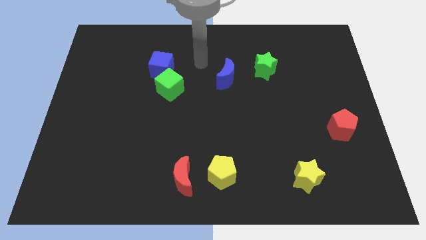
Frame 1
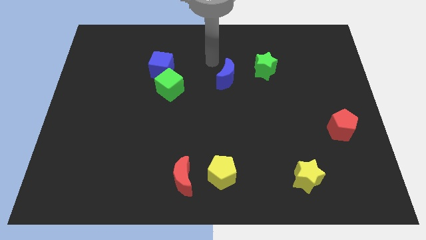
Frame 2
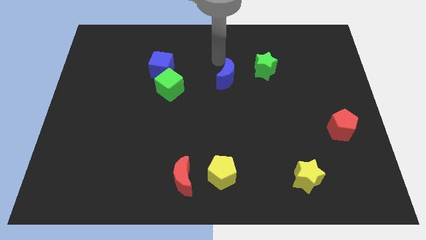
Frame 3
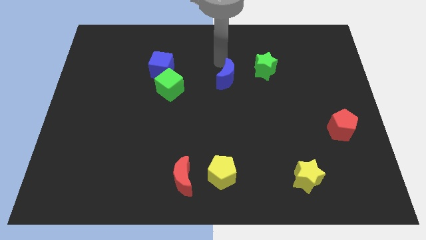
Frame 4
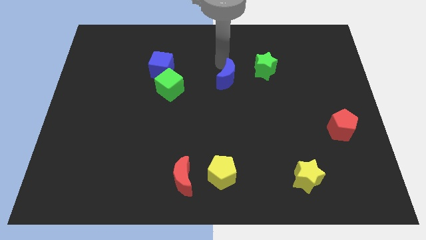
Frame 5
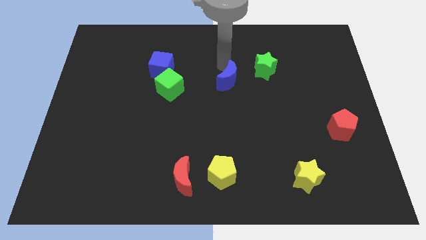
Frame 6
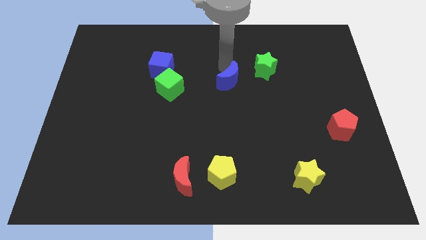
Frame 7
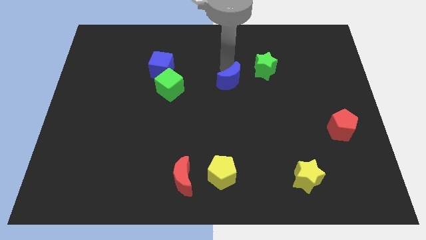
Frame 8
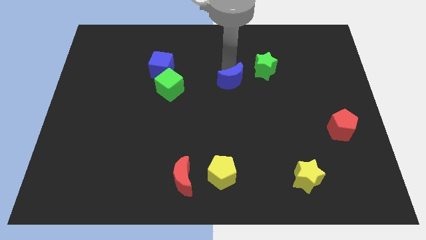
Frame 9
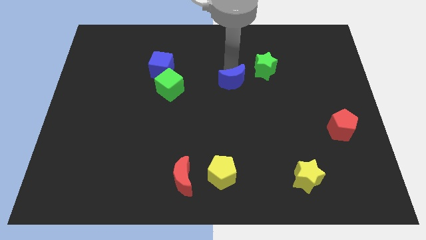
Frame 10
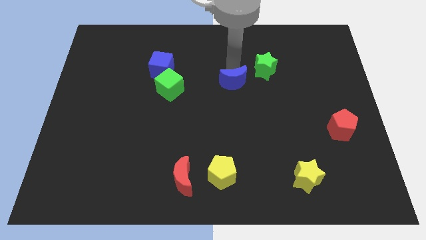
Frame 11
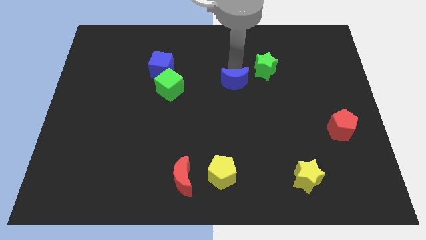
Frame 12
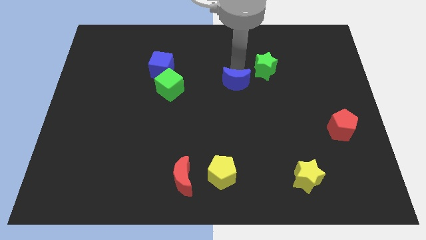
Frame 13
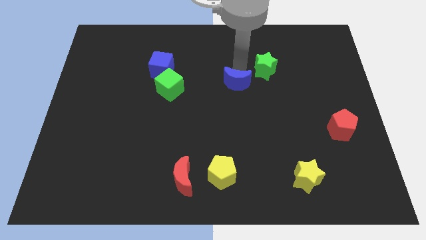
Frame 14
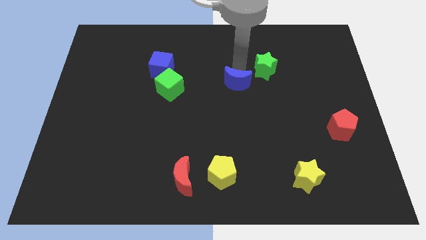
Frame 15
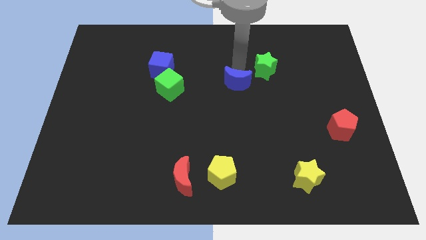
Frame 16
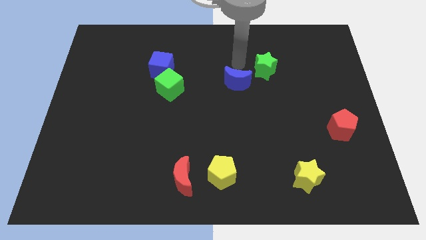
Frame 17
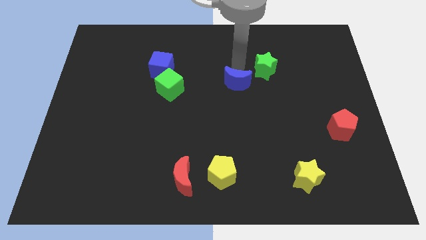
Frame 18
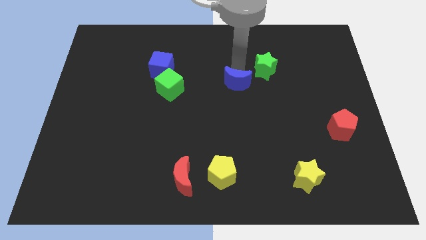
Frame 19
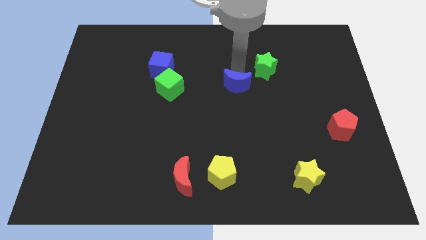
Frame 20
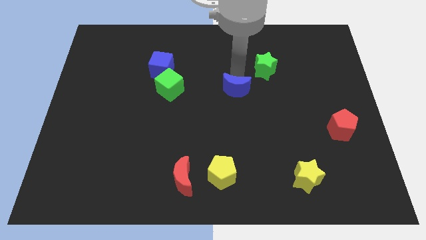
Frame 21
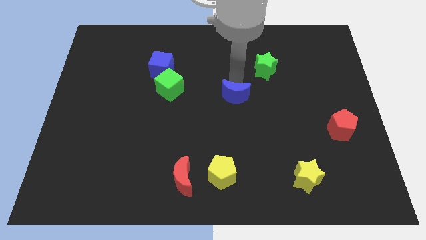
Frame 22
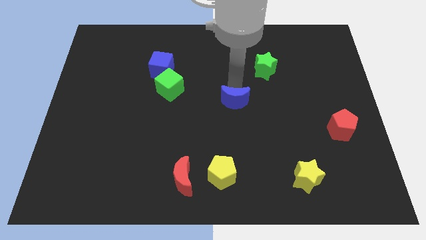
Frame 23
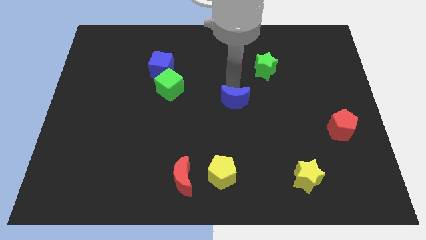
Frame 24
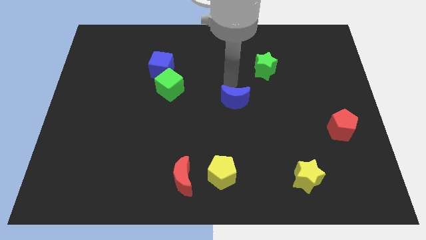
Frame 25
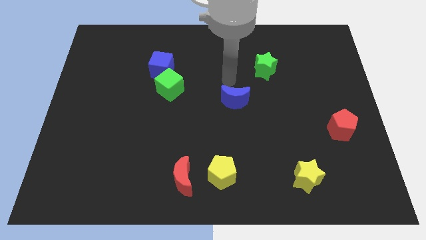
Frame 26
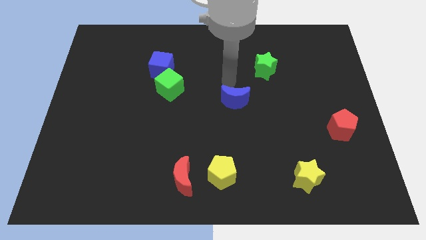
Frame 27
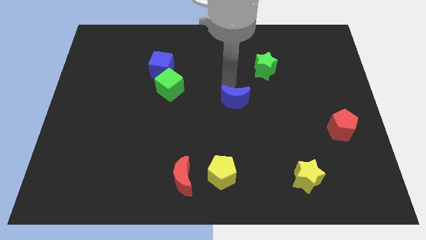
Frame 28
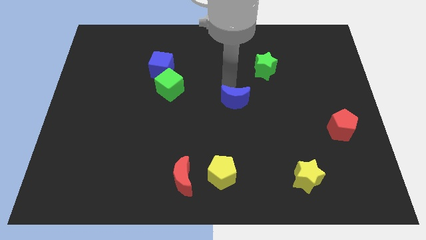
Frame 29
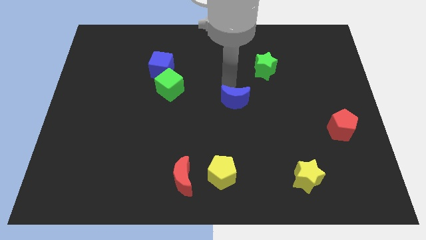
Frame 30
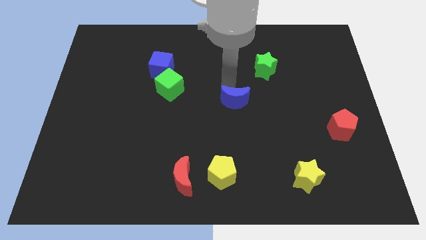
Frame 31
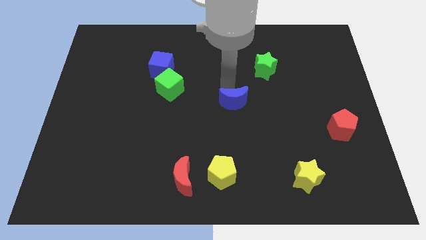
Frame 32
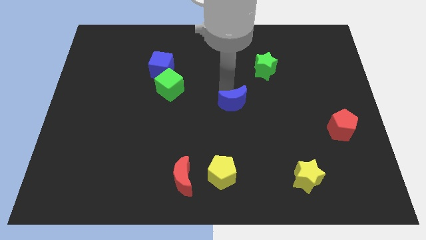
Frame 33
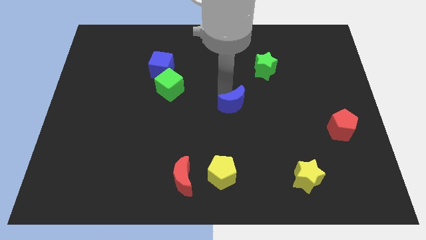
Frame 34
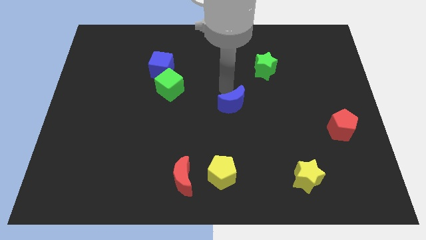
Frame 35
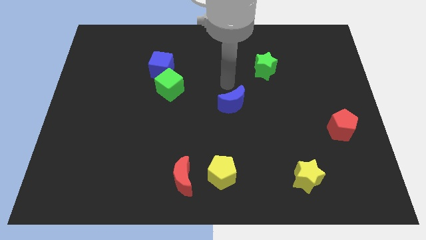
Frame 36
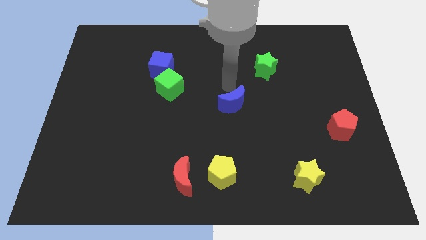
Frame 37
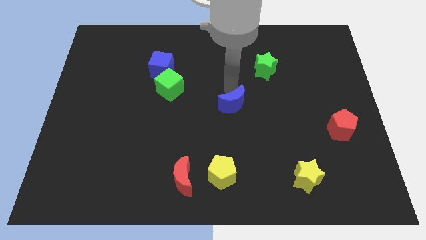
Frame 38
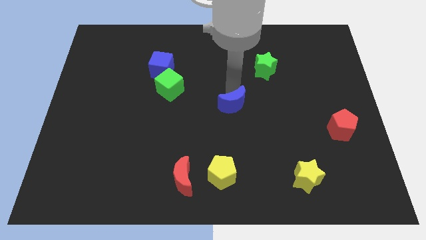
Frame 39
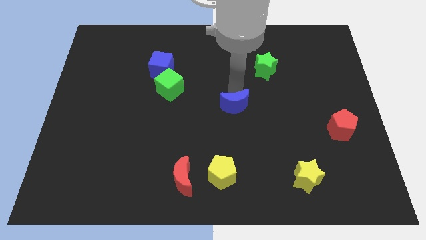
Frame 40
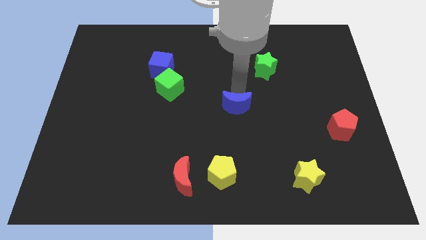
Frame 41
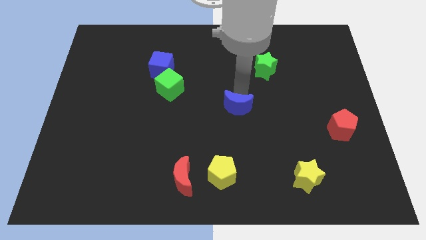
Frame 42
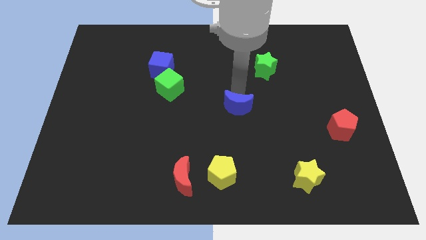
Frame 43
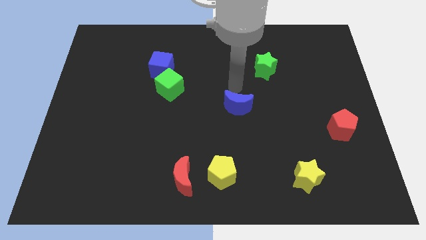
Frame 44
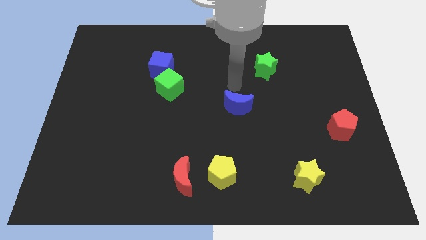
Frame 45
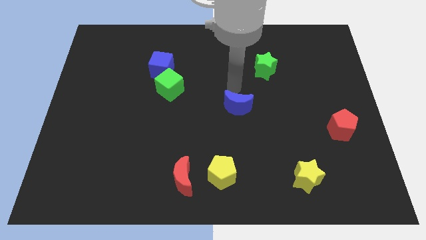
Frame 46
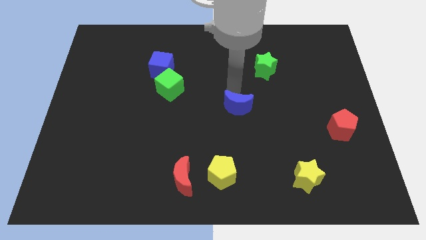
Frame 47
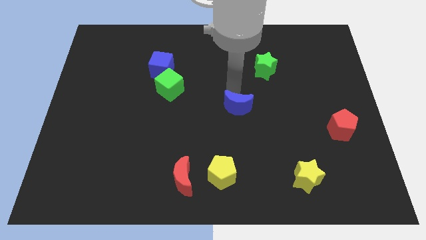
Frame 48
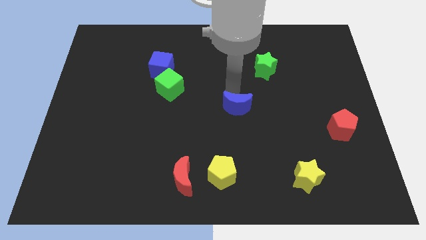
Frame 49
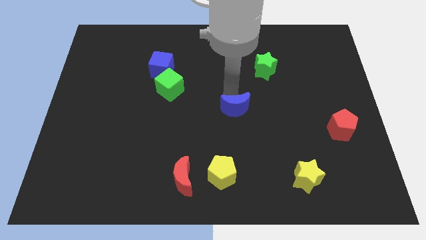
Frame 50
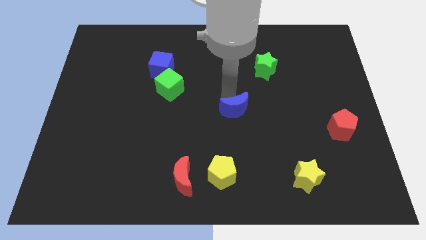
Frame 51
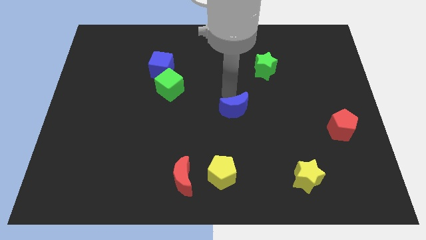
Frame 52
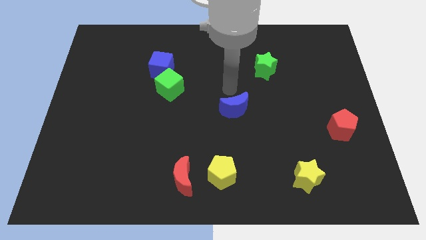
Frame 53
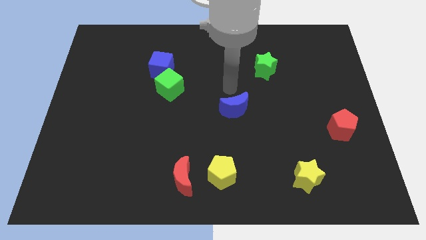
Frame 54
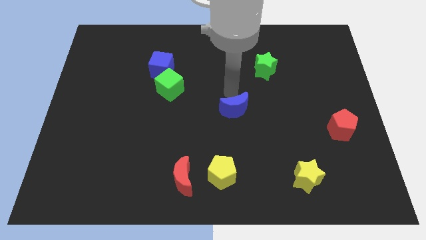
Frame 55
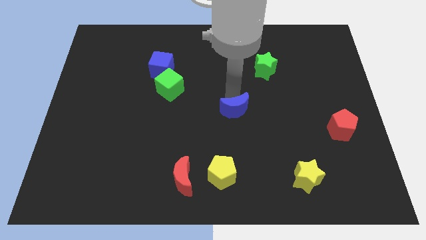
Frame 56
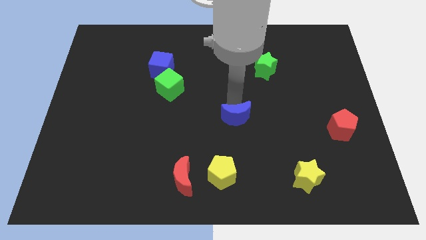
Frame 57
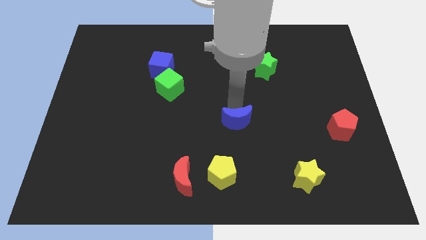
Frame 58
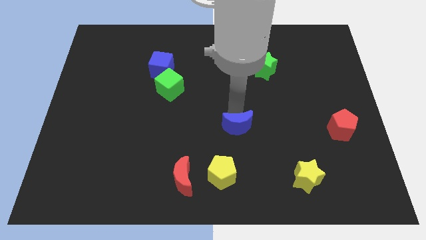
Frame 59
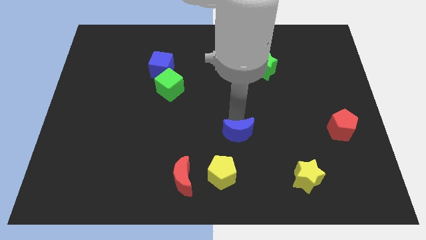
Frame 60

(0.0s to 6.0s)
put the blue moon to the top right of the yellow pentagon

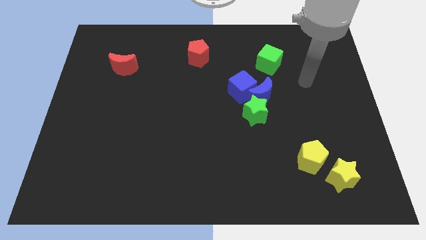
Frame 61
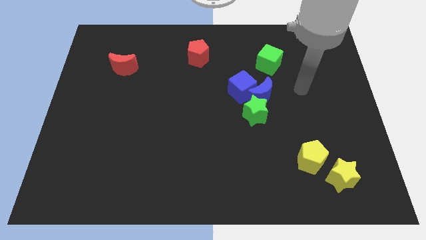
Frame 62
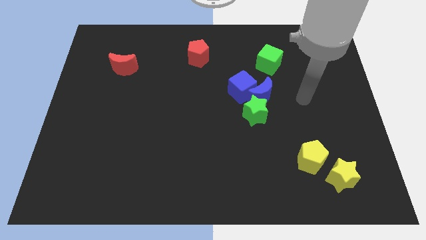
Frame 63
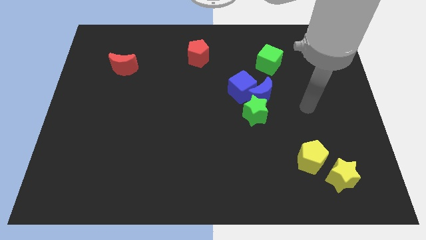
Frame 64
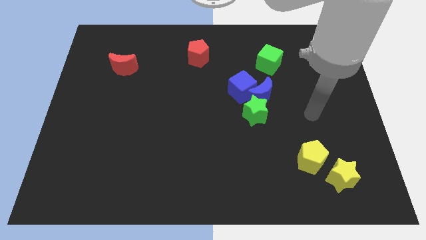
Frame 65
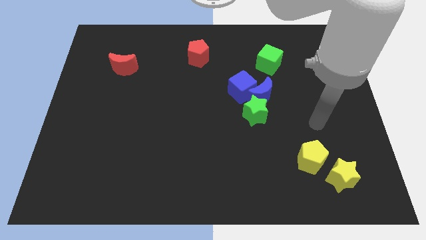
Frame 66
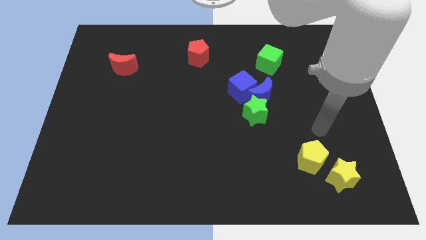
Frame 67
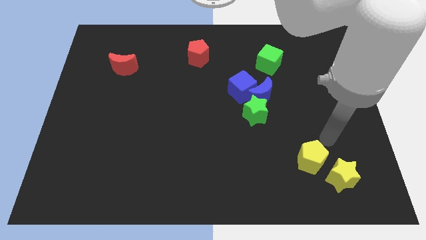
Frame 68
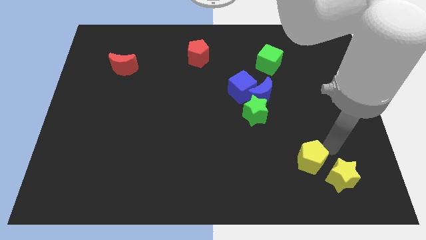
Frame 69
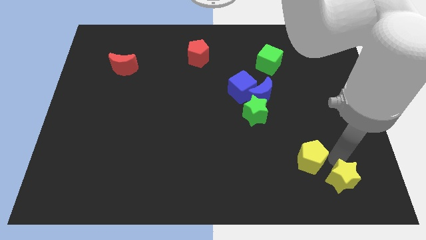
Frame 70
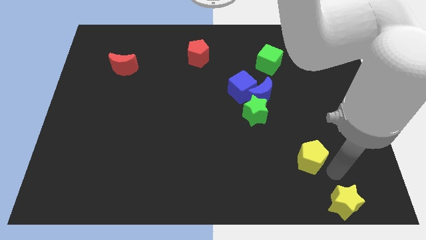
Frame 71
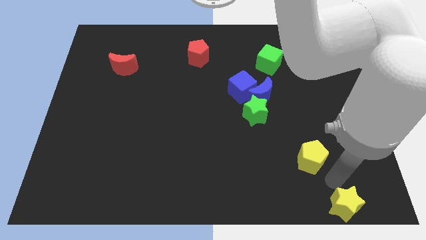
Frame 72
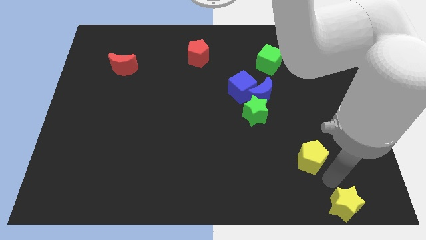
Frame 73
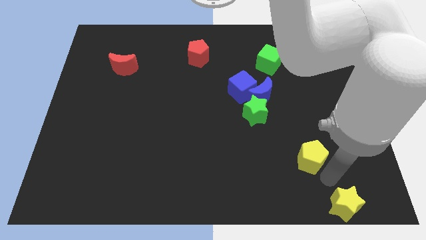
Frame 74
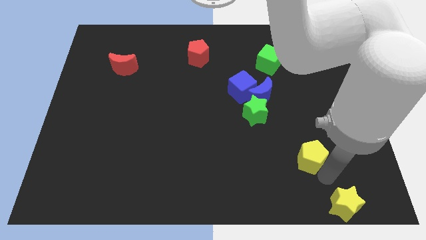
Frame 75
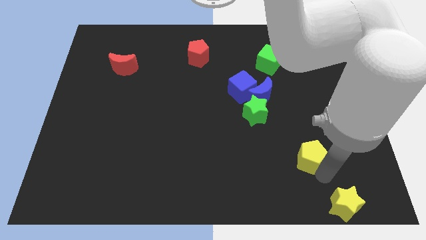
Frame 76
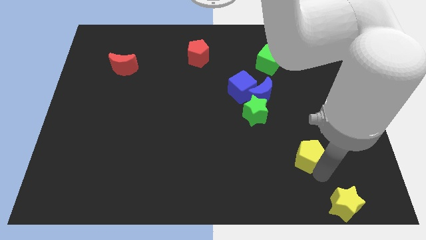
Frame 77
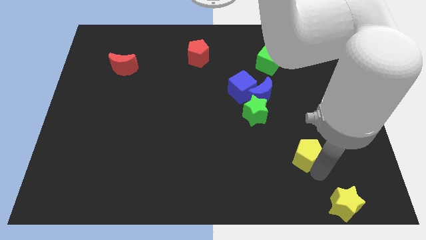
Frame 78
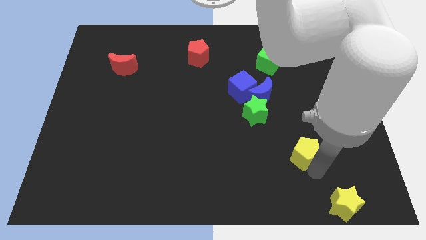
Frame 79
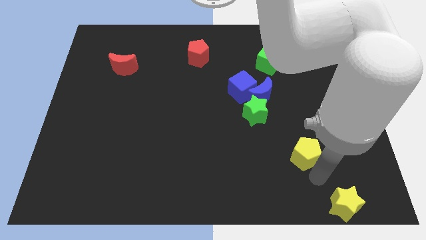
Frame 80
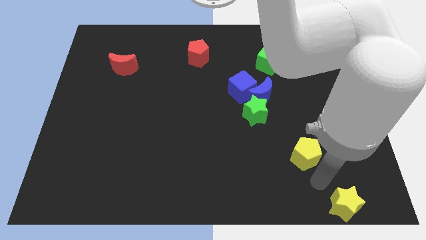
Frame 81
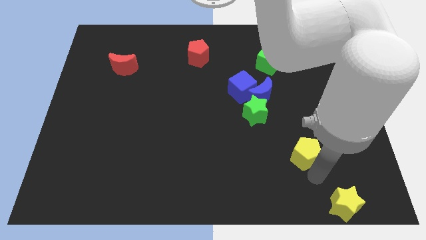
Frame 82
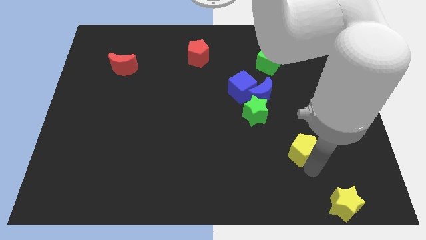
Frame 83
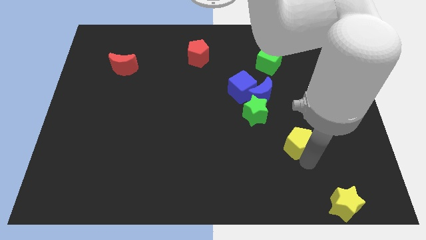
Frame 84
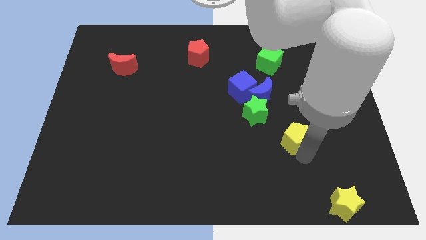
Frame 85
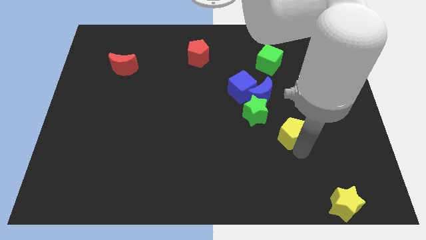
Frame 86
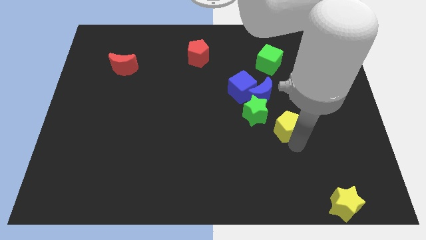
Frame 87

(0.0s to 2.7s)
move the yellow pentagon to the bottom right of the blue moon
